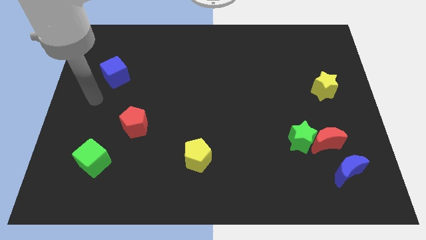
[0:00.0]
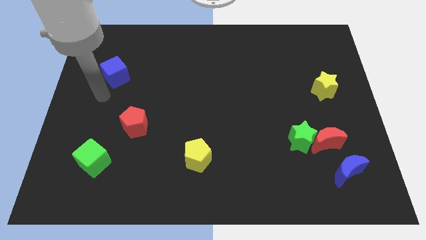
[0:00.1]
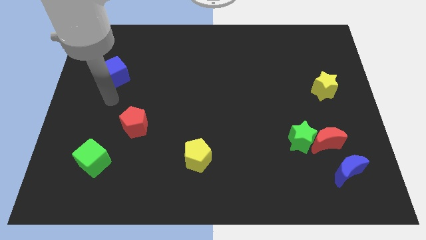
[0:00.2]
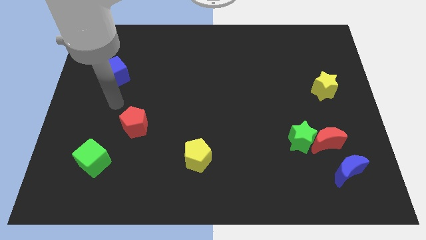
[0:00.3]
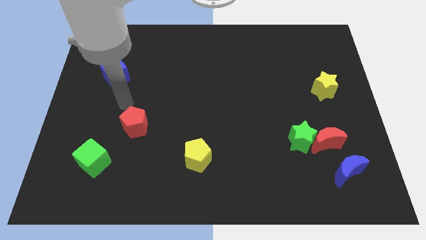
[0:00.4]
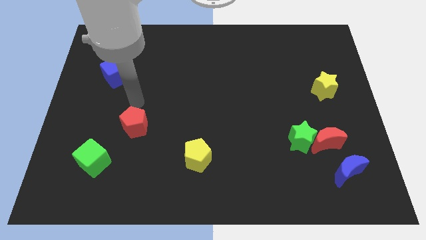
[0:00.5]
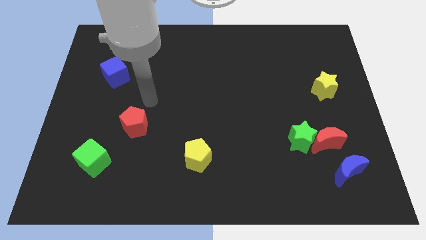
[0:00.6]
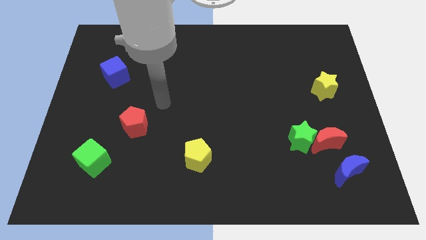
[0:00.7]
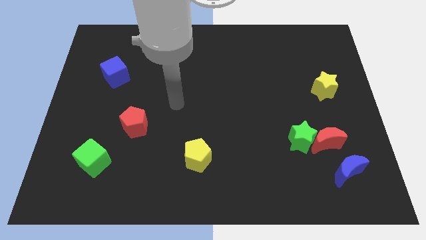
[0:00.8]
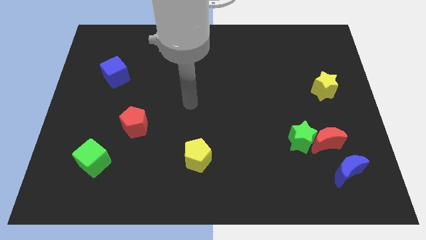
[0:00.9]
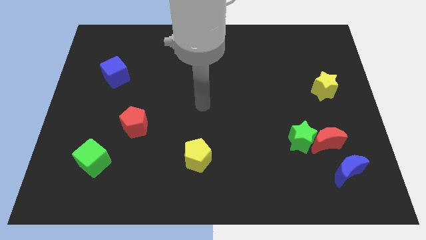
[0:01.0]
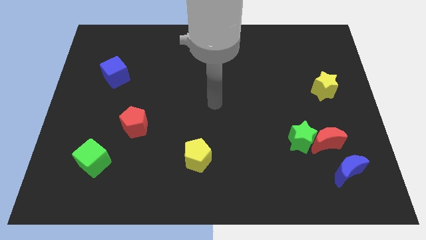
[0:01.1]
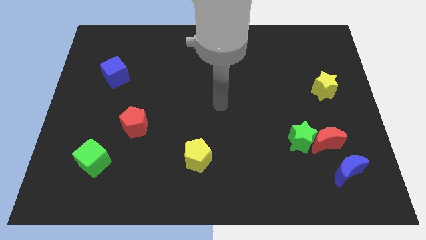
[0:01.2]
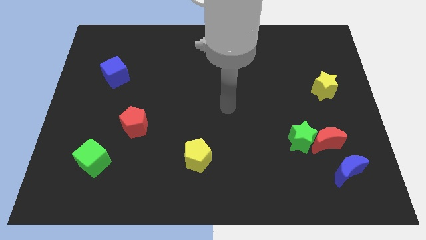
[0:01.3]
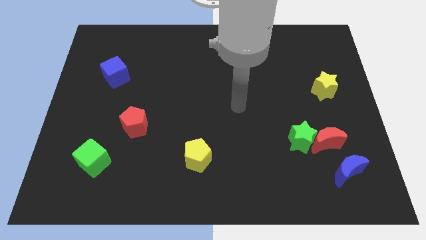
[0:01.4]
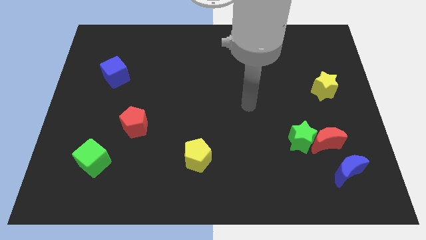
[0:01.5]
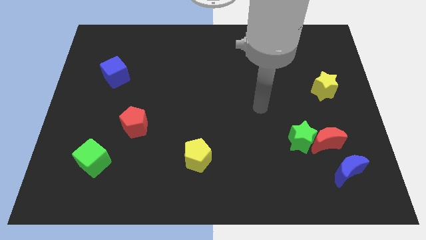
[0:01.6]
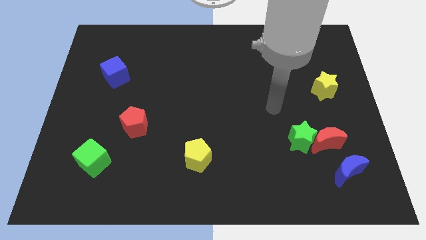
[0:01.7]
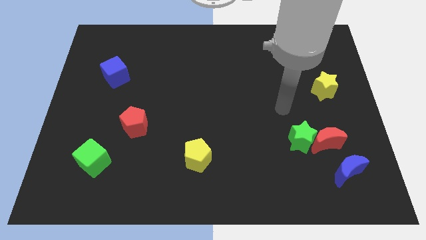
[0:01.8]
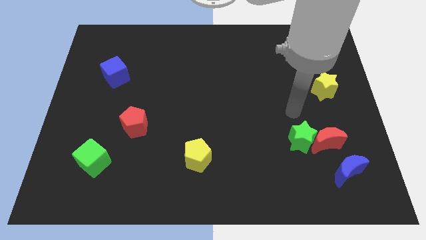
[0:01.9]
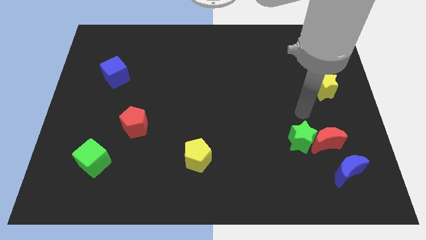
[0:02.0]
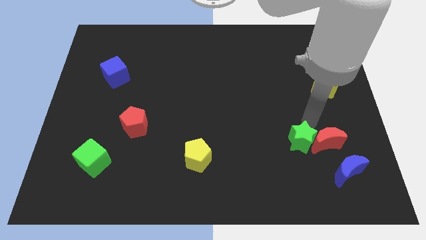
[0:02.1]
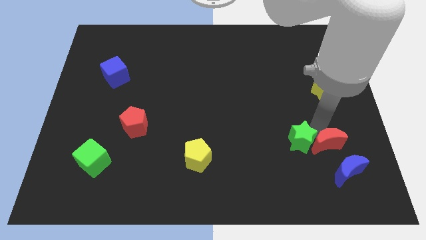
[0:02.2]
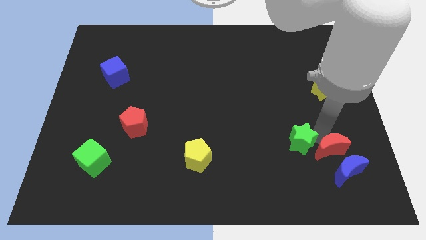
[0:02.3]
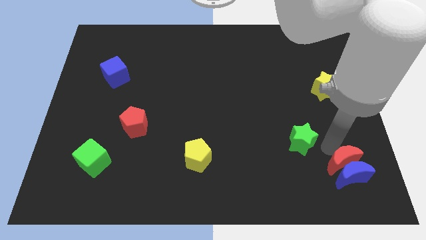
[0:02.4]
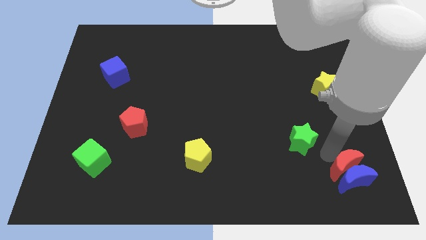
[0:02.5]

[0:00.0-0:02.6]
move the green star away from the red moon

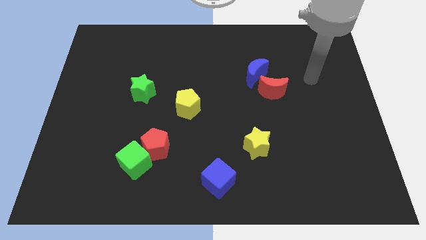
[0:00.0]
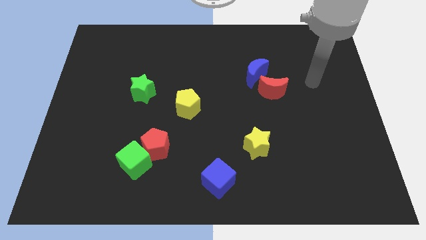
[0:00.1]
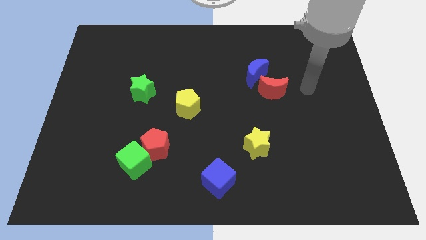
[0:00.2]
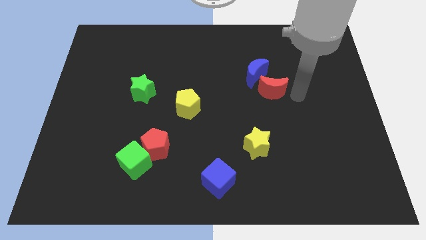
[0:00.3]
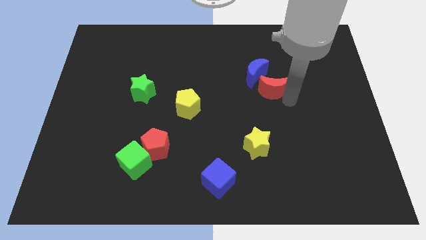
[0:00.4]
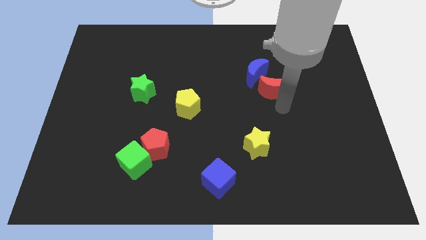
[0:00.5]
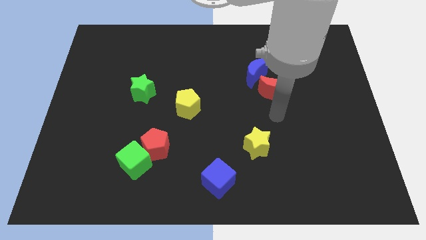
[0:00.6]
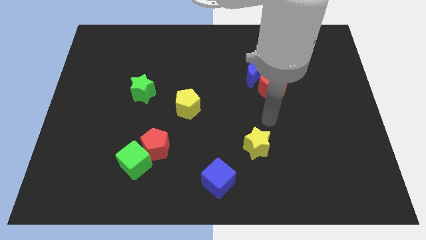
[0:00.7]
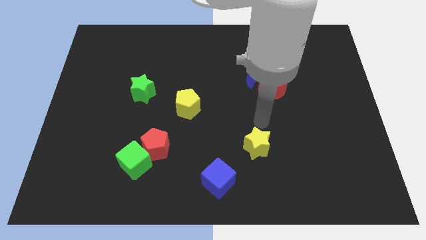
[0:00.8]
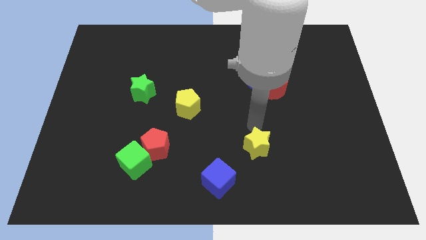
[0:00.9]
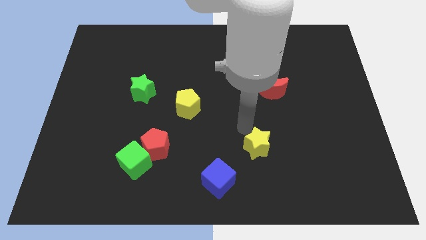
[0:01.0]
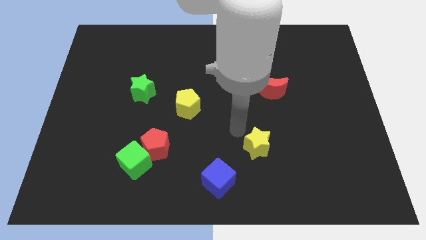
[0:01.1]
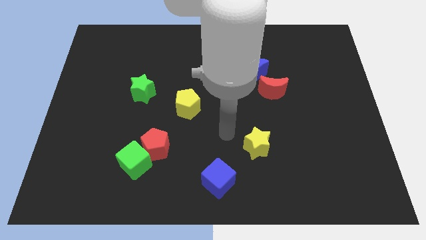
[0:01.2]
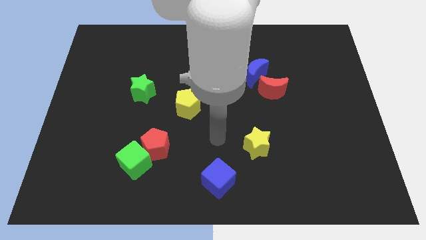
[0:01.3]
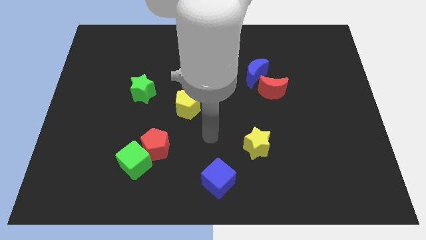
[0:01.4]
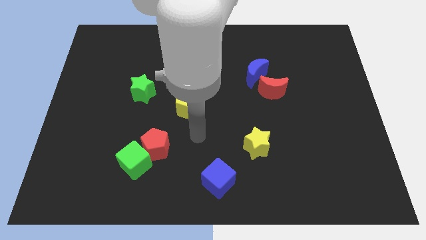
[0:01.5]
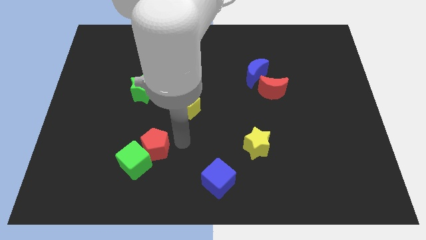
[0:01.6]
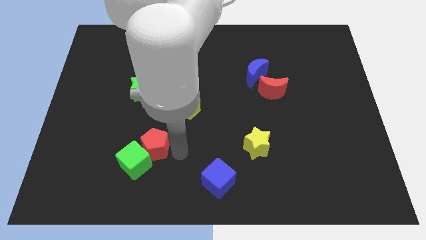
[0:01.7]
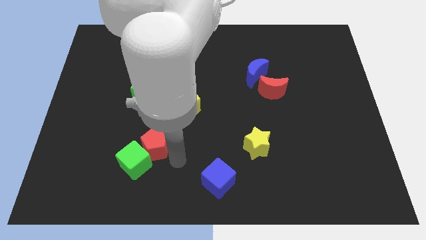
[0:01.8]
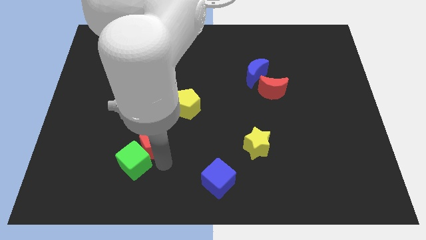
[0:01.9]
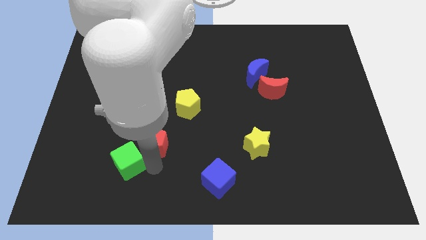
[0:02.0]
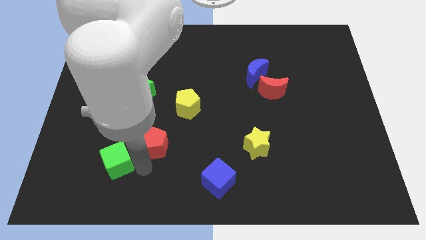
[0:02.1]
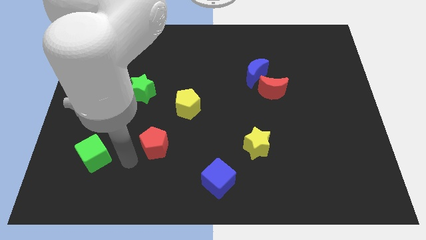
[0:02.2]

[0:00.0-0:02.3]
move the red pentagon away from the green cube

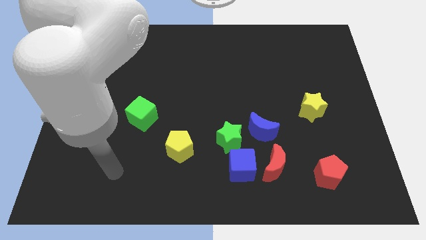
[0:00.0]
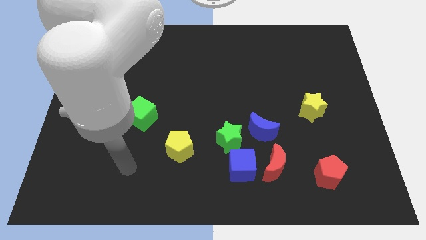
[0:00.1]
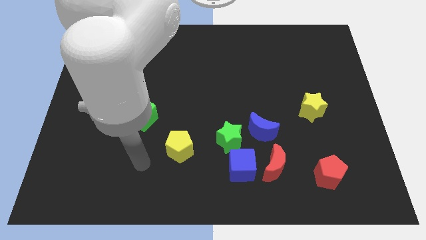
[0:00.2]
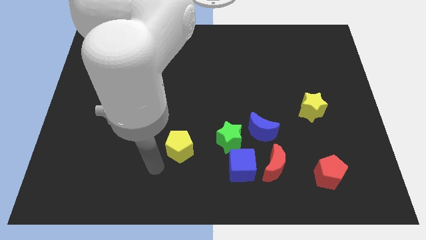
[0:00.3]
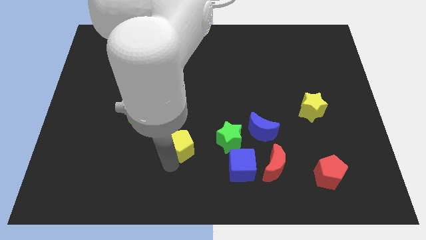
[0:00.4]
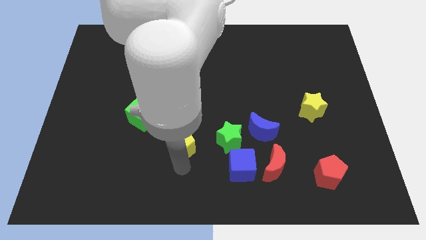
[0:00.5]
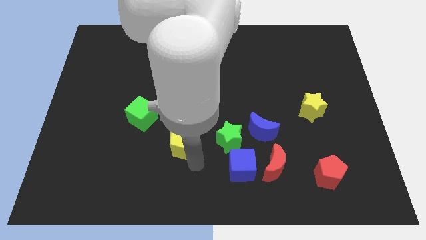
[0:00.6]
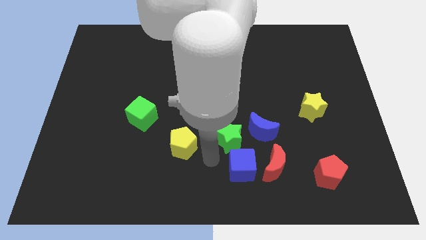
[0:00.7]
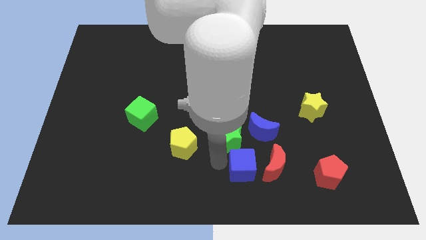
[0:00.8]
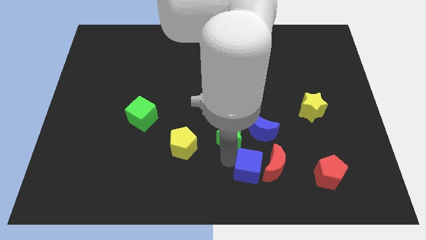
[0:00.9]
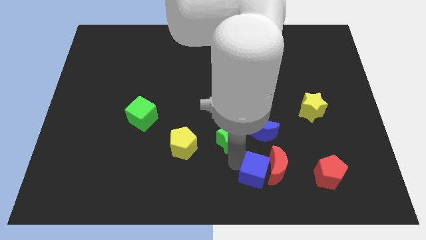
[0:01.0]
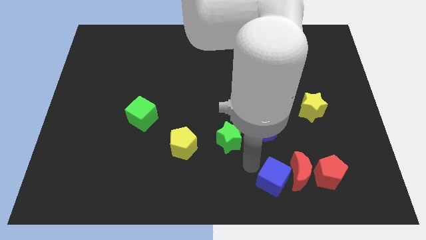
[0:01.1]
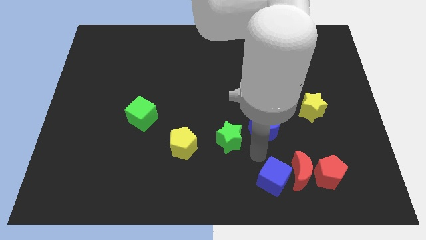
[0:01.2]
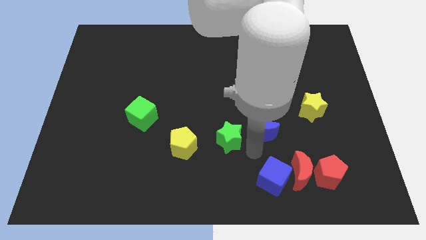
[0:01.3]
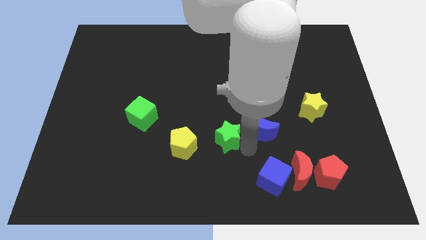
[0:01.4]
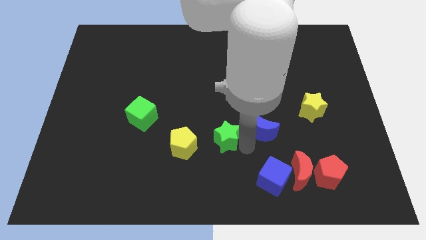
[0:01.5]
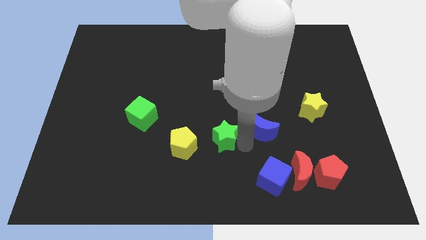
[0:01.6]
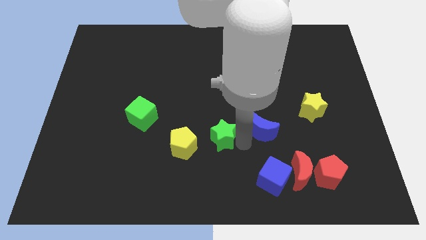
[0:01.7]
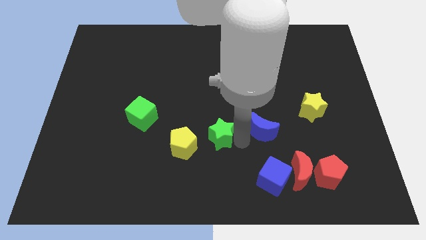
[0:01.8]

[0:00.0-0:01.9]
separate the green star from the blue cube and blue moon

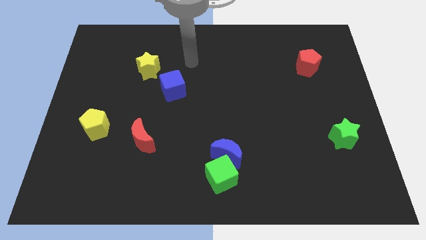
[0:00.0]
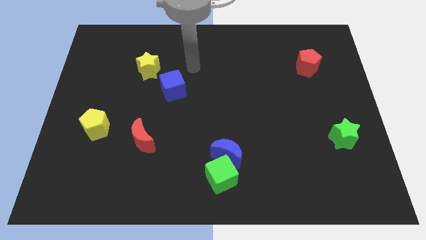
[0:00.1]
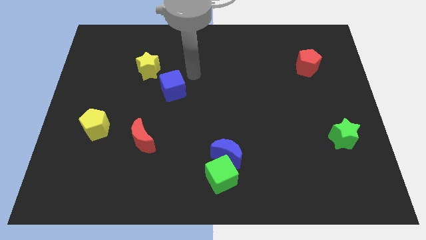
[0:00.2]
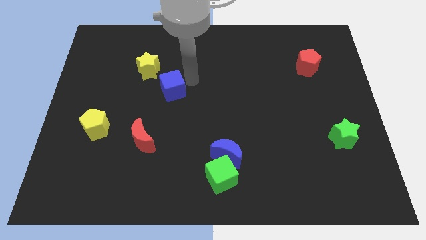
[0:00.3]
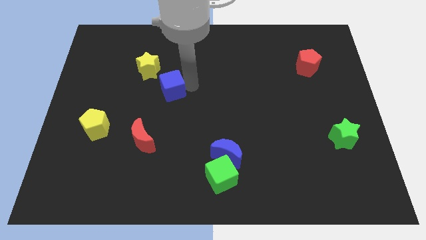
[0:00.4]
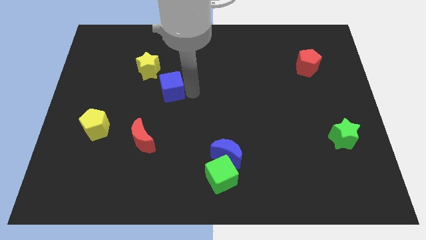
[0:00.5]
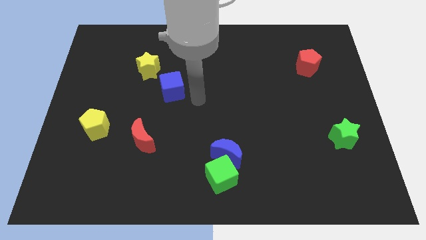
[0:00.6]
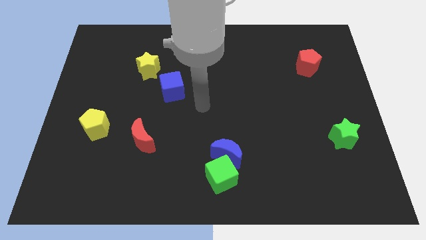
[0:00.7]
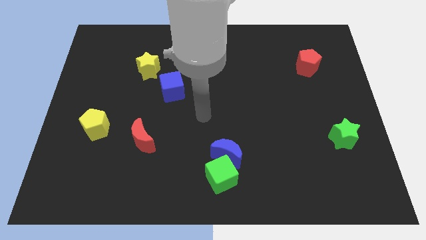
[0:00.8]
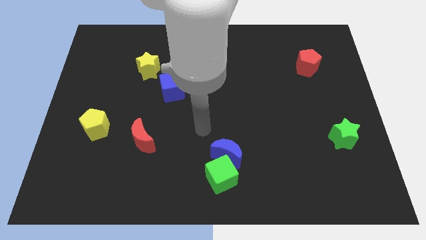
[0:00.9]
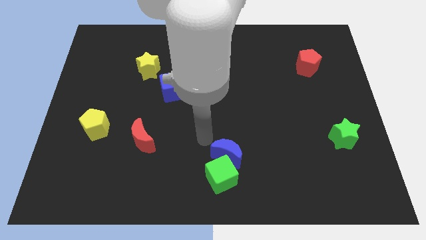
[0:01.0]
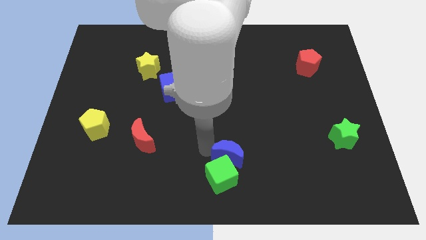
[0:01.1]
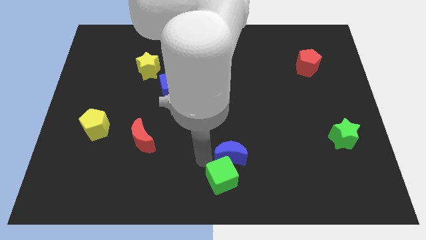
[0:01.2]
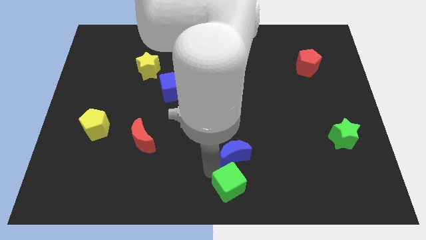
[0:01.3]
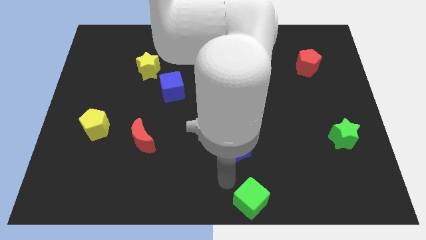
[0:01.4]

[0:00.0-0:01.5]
pull the blue moon apart from the green cube

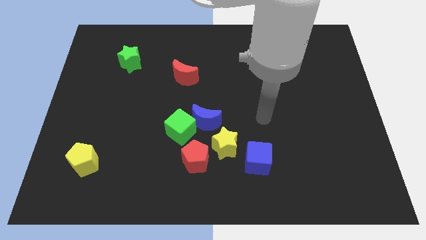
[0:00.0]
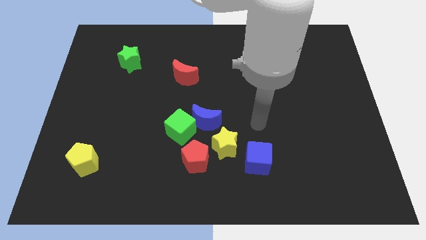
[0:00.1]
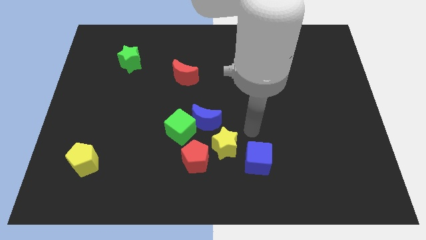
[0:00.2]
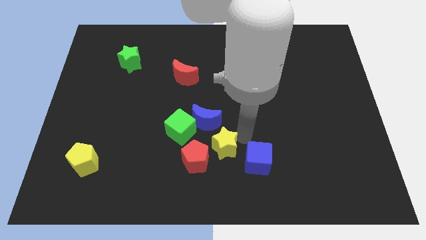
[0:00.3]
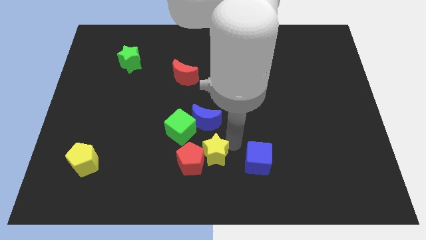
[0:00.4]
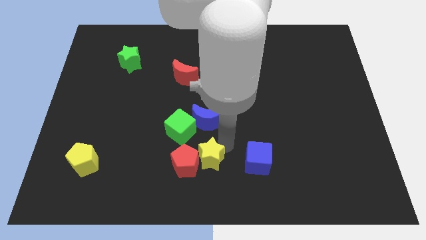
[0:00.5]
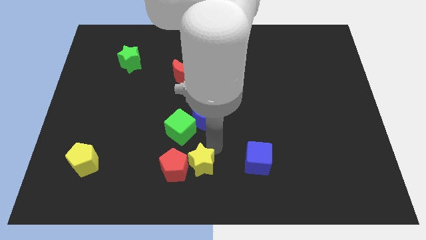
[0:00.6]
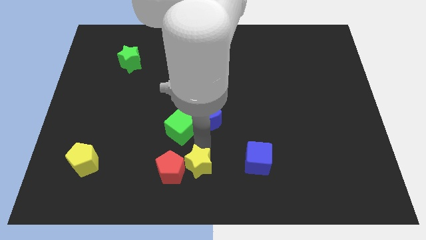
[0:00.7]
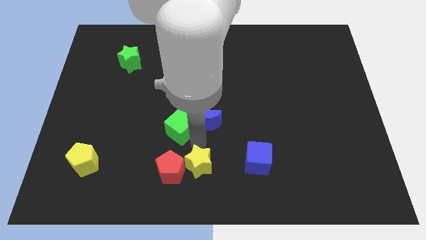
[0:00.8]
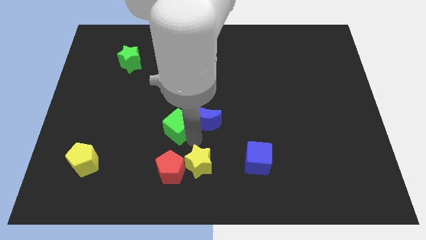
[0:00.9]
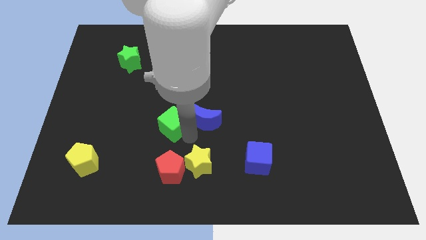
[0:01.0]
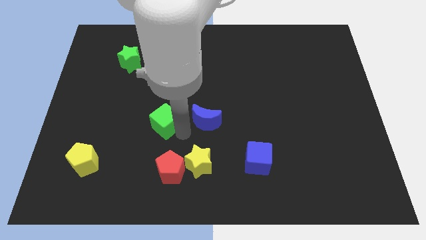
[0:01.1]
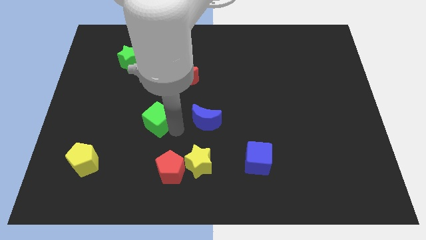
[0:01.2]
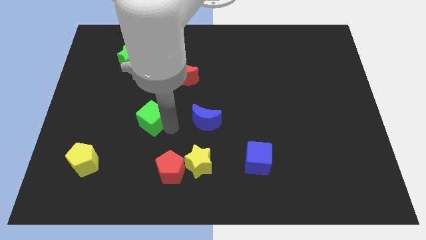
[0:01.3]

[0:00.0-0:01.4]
pull the green cube apart from the blue moon and red pentagon
